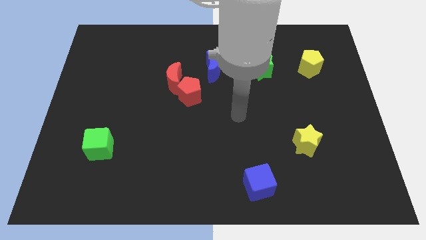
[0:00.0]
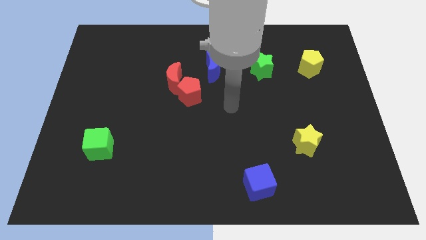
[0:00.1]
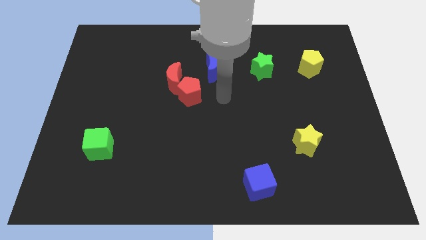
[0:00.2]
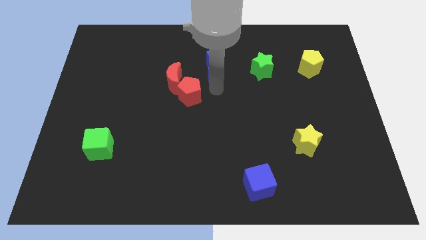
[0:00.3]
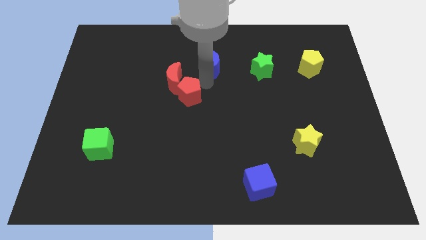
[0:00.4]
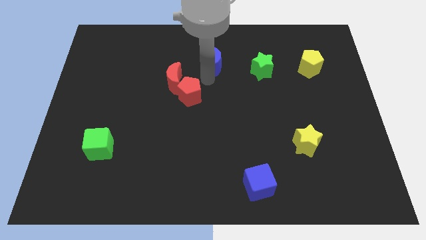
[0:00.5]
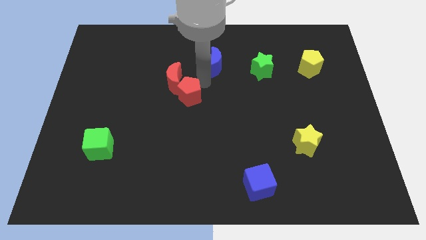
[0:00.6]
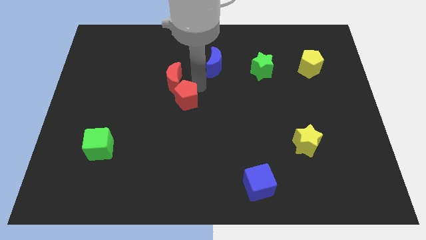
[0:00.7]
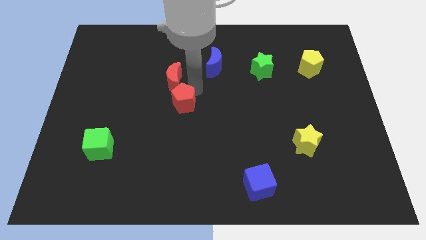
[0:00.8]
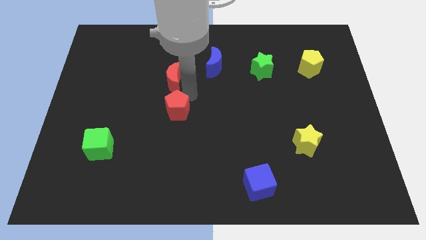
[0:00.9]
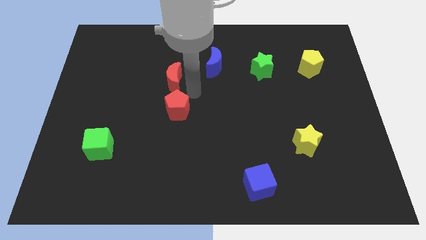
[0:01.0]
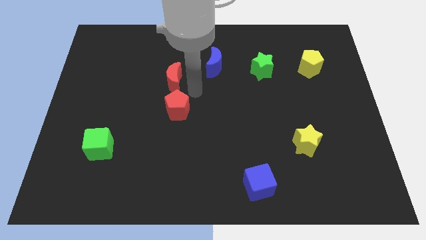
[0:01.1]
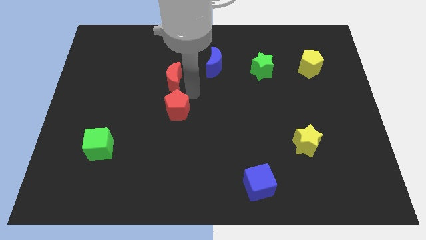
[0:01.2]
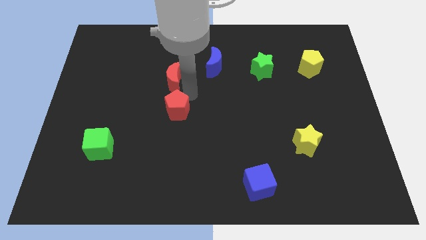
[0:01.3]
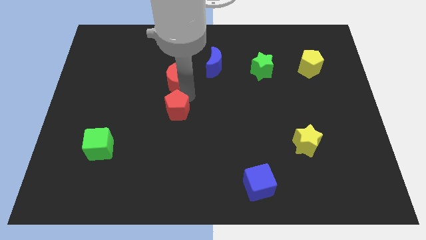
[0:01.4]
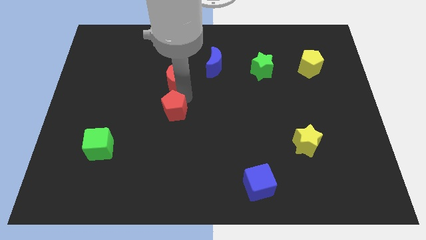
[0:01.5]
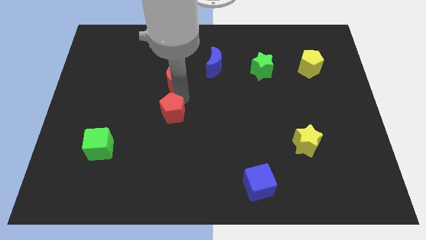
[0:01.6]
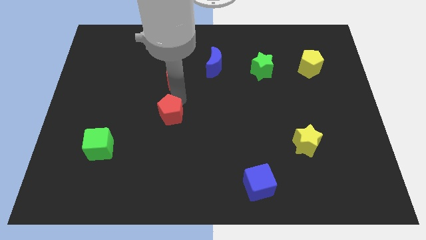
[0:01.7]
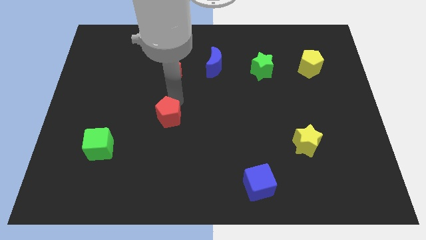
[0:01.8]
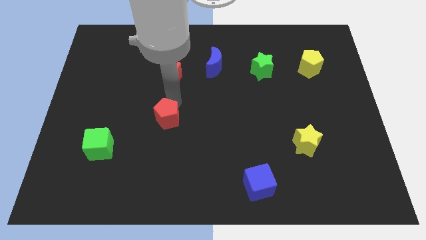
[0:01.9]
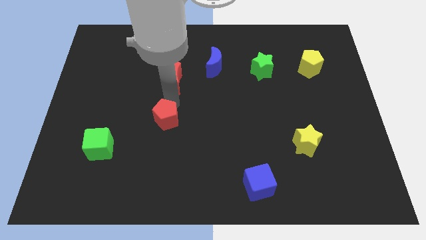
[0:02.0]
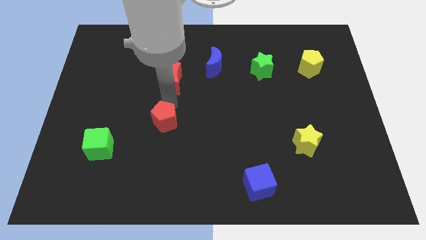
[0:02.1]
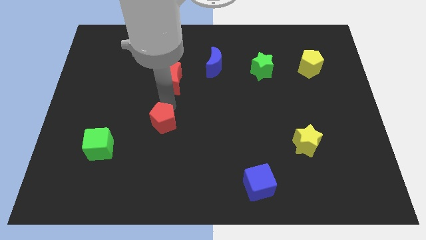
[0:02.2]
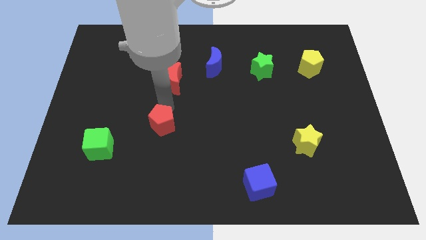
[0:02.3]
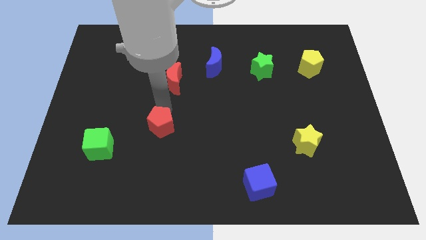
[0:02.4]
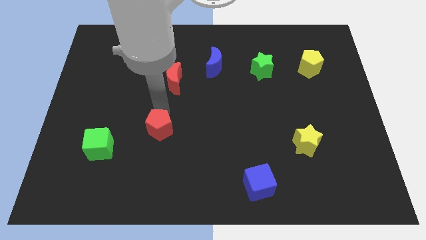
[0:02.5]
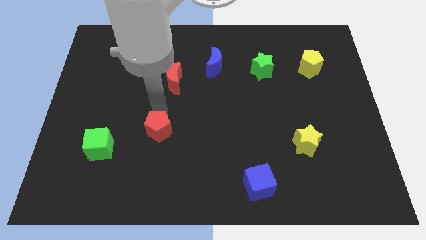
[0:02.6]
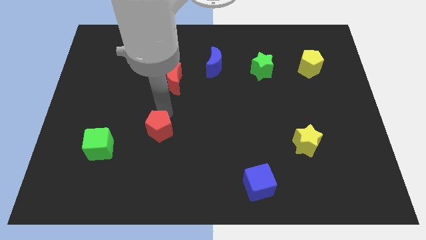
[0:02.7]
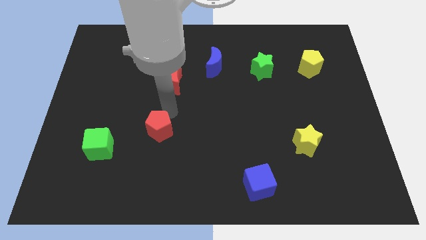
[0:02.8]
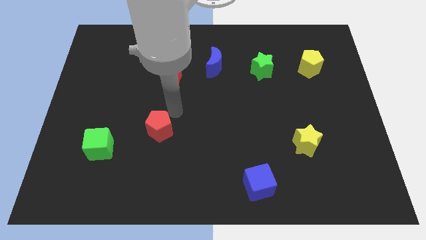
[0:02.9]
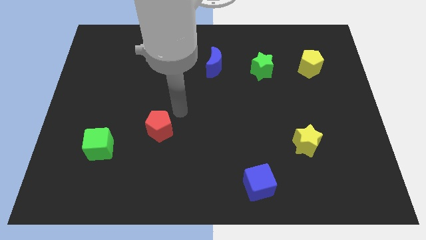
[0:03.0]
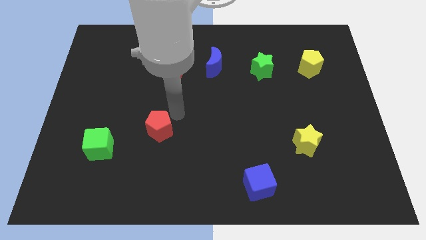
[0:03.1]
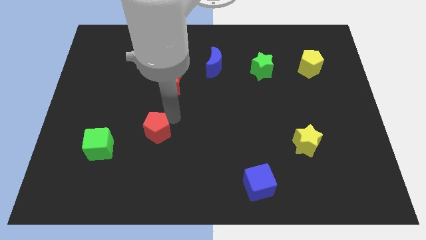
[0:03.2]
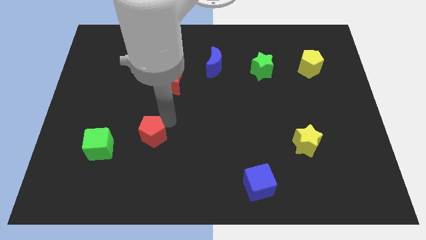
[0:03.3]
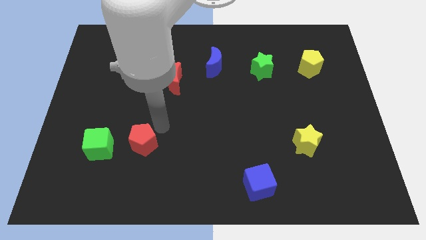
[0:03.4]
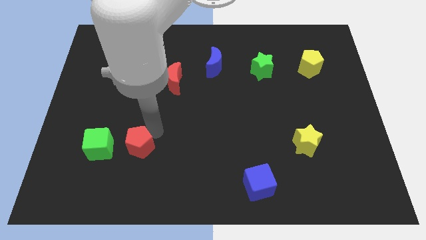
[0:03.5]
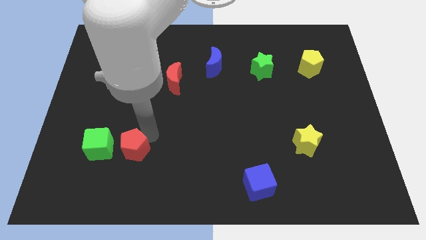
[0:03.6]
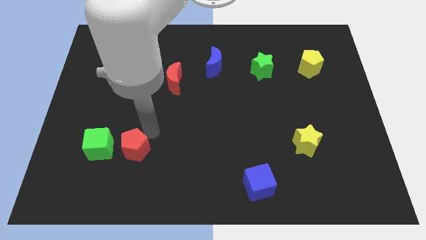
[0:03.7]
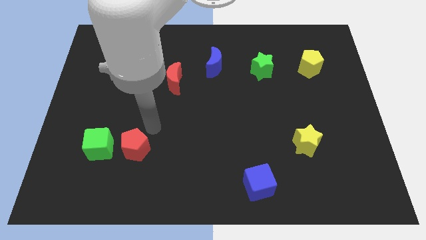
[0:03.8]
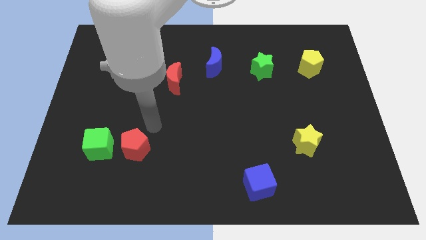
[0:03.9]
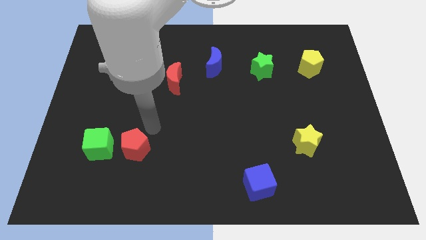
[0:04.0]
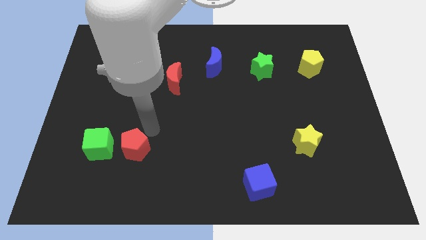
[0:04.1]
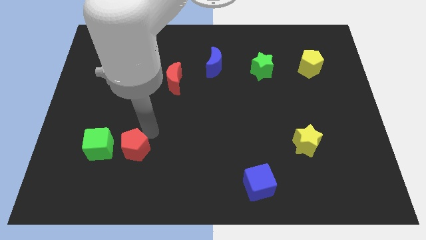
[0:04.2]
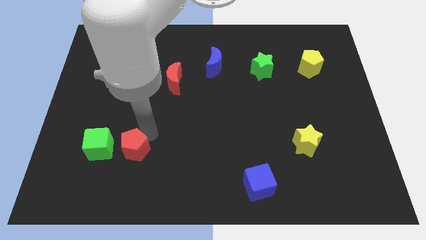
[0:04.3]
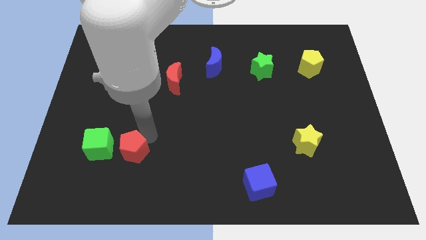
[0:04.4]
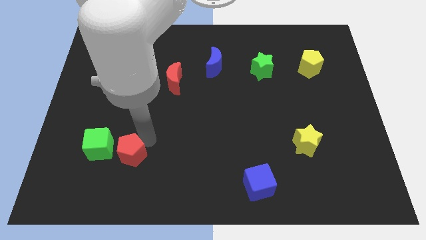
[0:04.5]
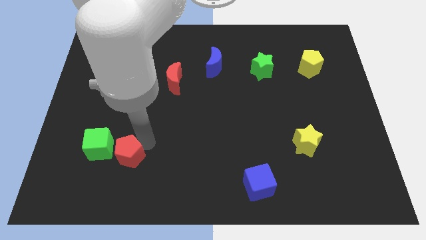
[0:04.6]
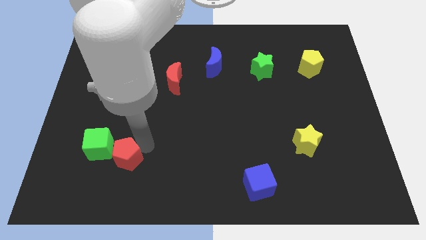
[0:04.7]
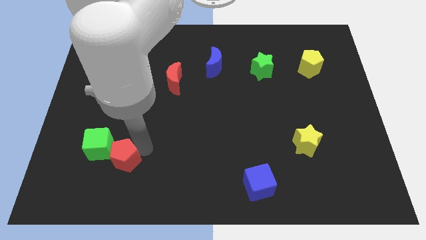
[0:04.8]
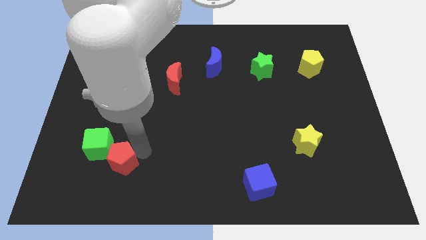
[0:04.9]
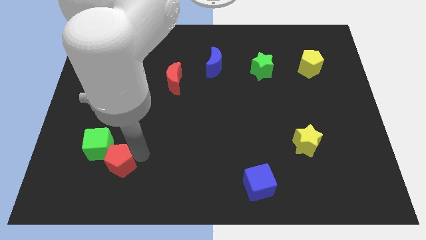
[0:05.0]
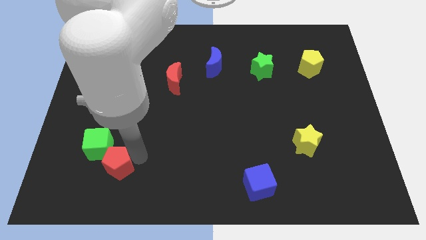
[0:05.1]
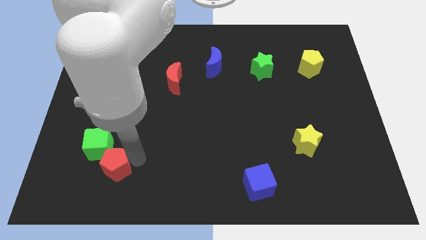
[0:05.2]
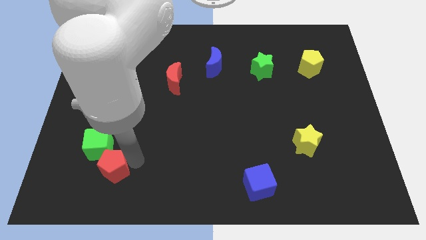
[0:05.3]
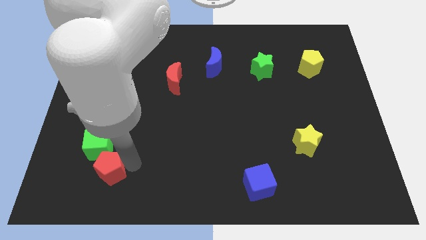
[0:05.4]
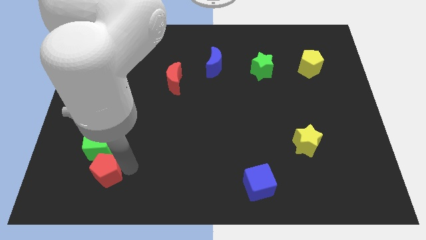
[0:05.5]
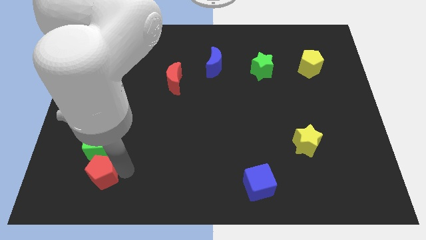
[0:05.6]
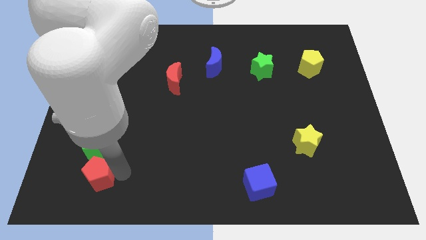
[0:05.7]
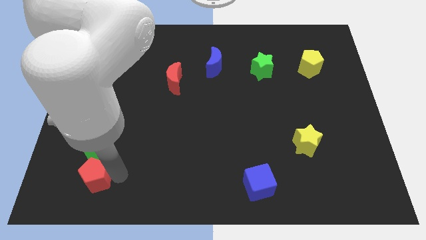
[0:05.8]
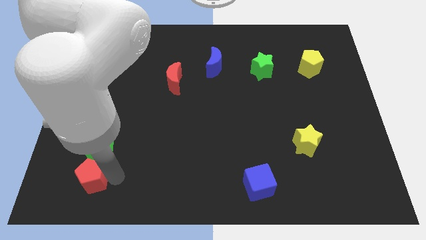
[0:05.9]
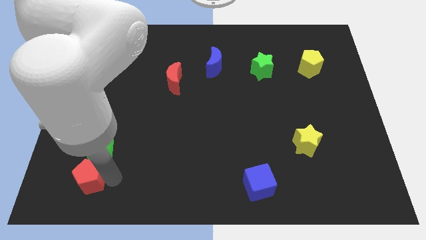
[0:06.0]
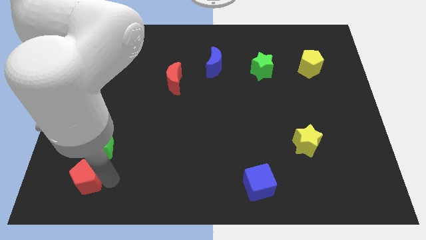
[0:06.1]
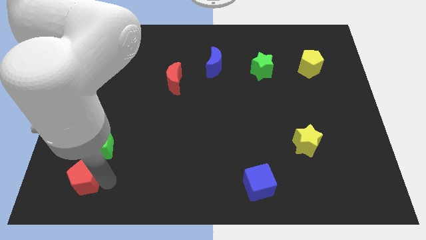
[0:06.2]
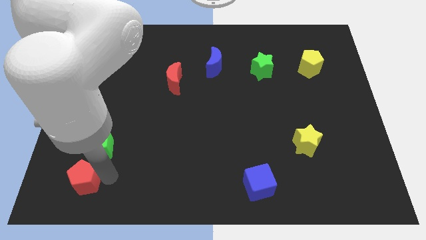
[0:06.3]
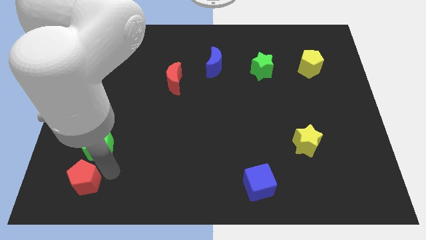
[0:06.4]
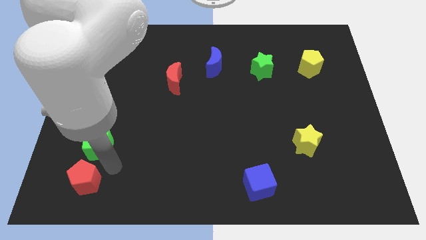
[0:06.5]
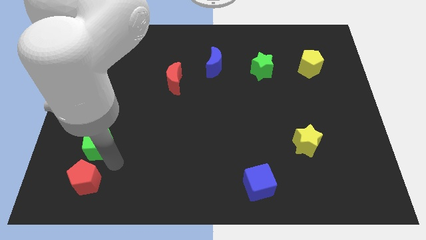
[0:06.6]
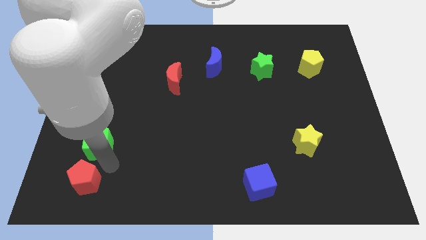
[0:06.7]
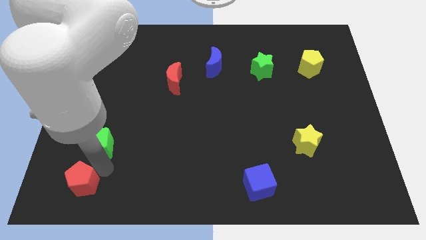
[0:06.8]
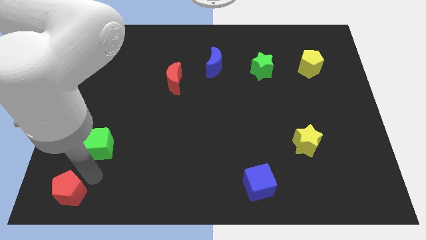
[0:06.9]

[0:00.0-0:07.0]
slide the red pentagon to the bottom left corner
